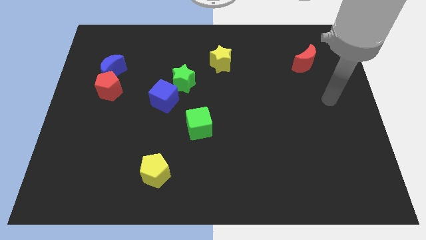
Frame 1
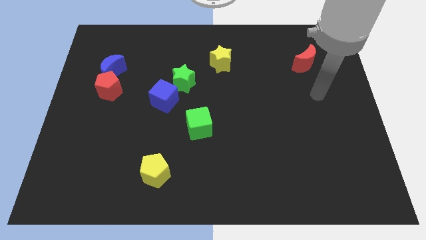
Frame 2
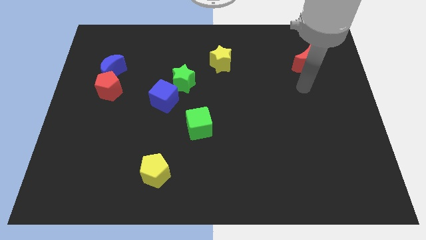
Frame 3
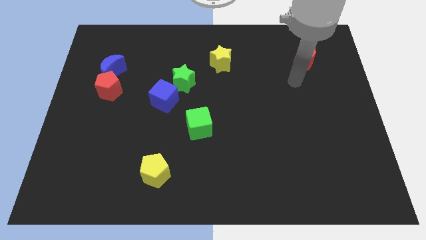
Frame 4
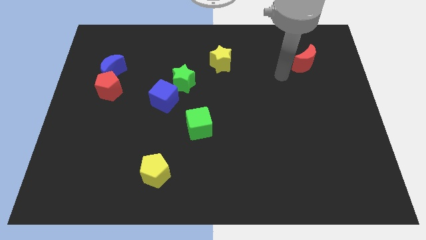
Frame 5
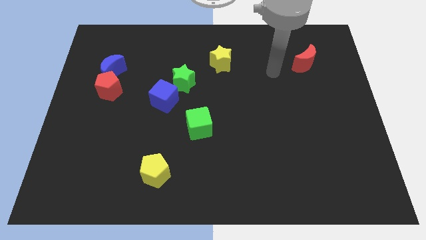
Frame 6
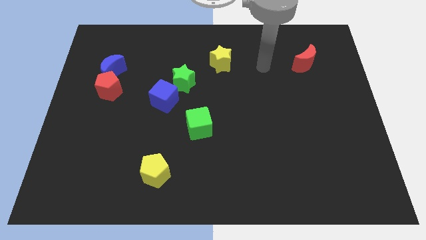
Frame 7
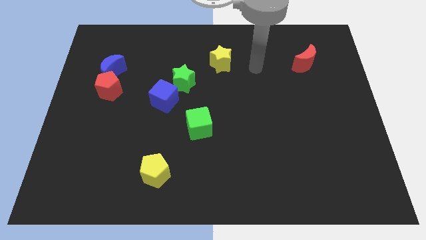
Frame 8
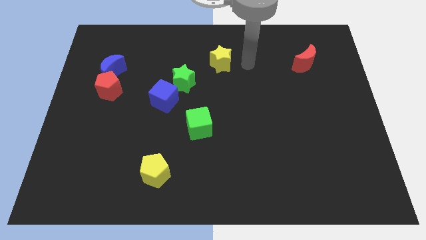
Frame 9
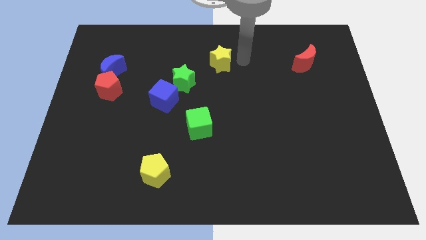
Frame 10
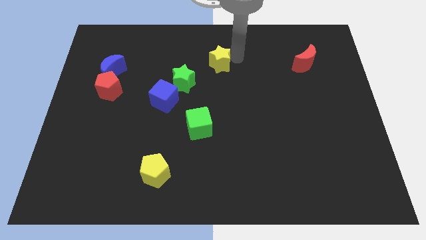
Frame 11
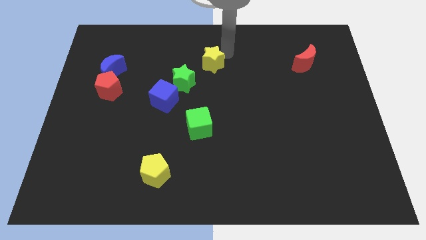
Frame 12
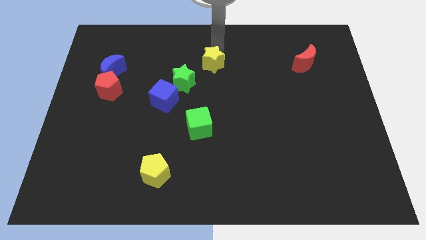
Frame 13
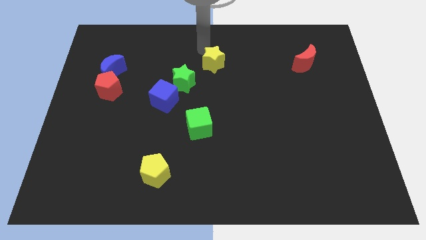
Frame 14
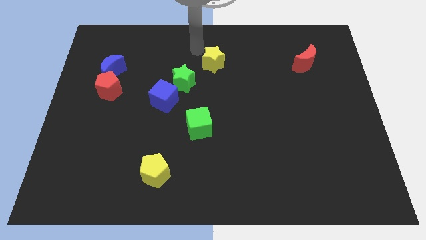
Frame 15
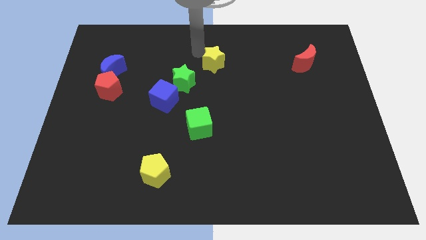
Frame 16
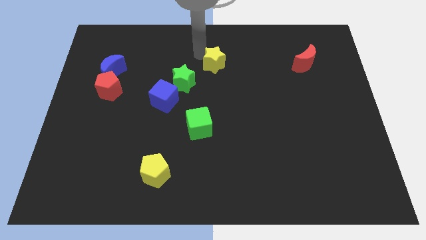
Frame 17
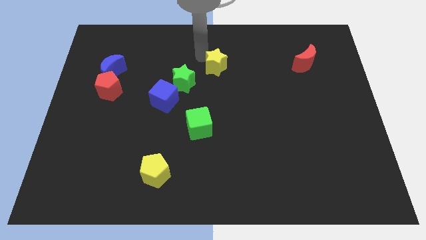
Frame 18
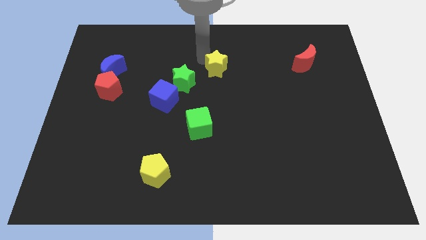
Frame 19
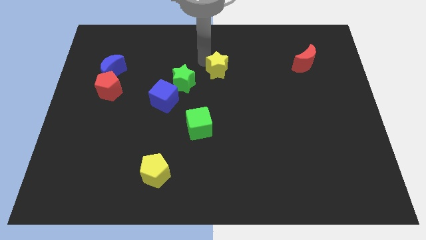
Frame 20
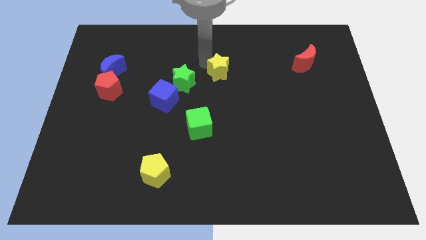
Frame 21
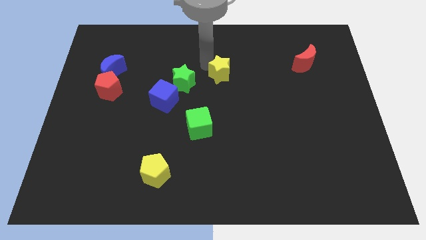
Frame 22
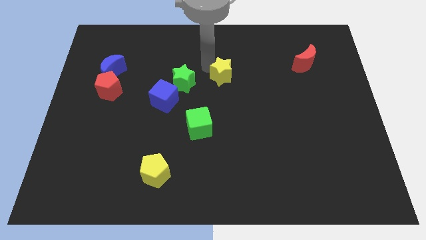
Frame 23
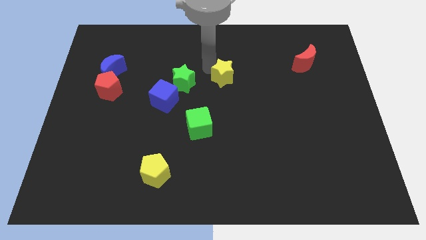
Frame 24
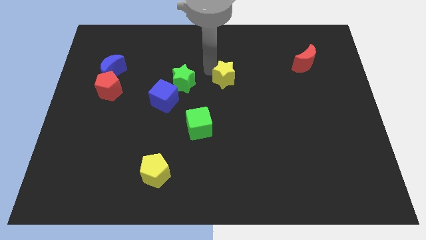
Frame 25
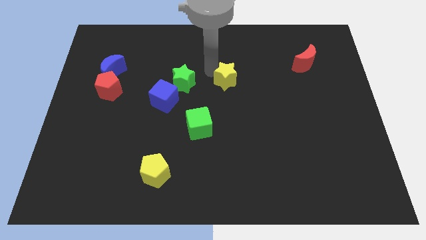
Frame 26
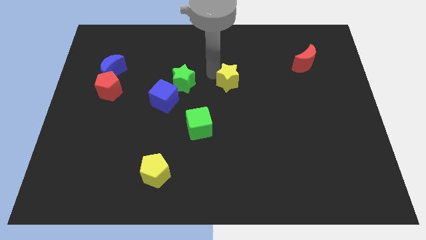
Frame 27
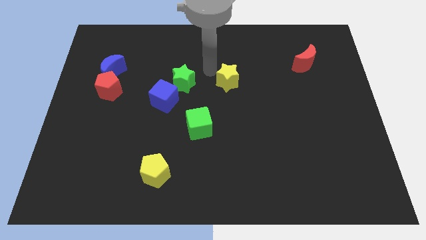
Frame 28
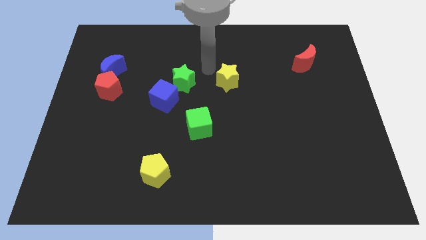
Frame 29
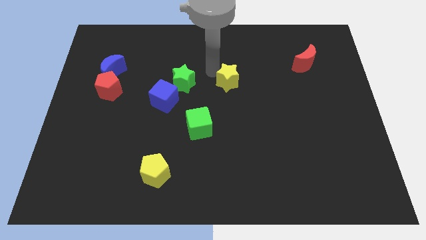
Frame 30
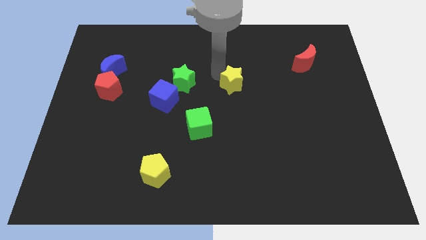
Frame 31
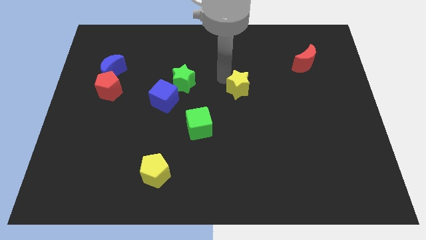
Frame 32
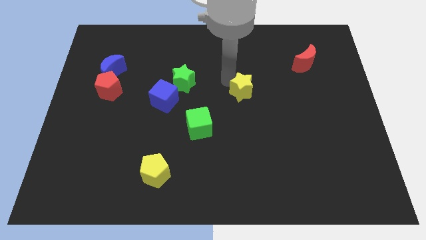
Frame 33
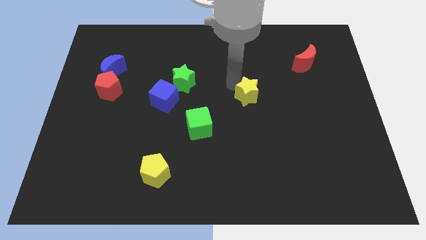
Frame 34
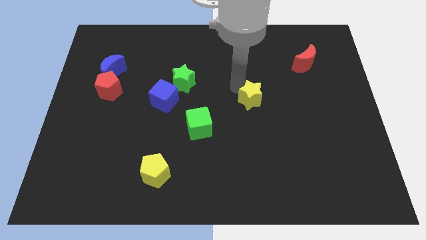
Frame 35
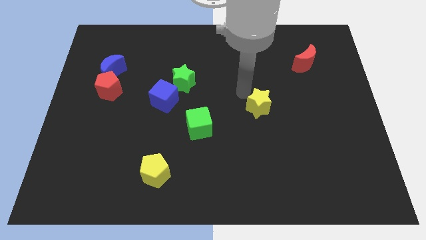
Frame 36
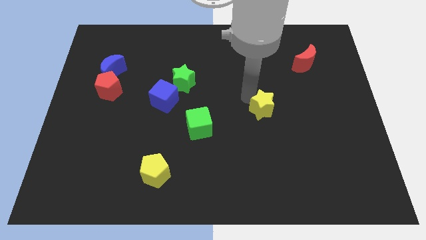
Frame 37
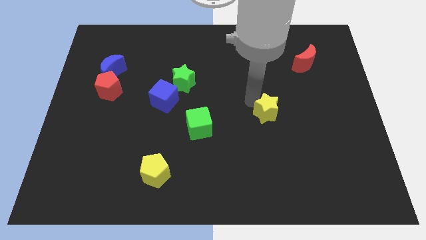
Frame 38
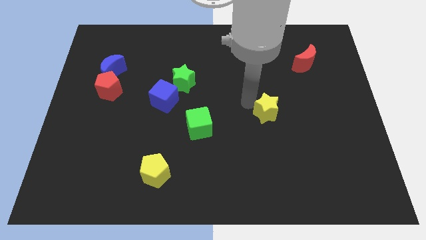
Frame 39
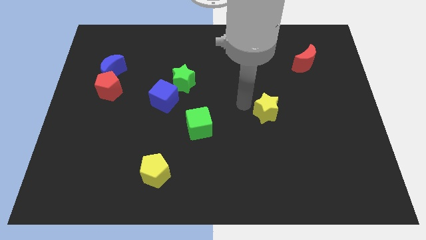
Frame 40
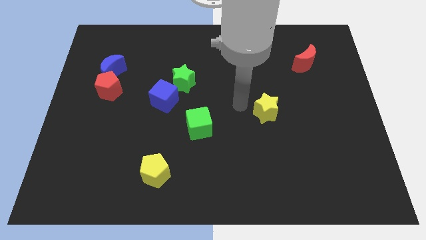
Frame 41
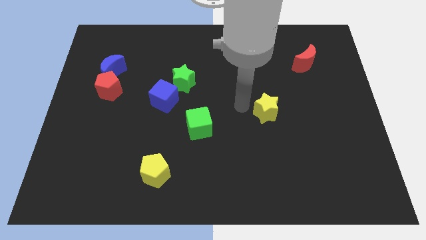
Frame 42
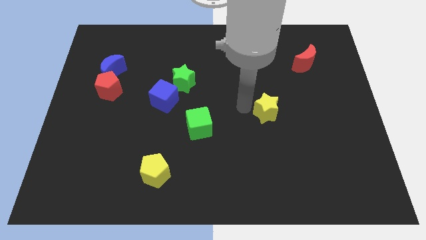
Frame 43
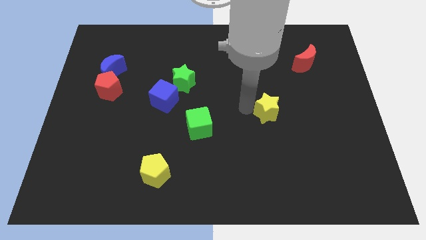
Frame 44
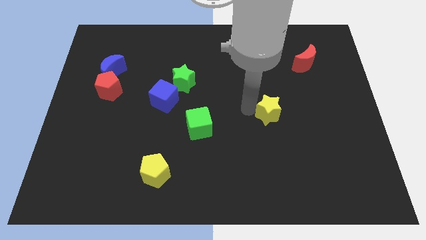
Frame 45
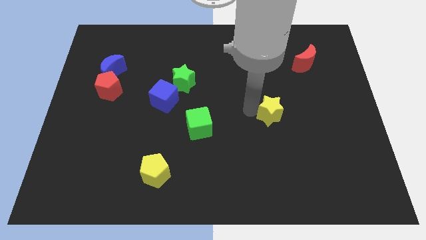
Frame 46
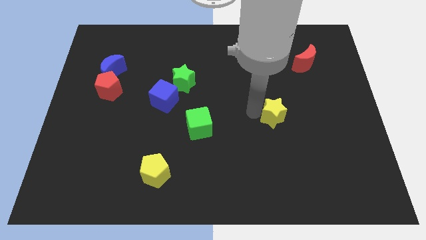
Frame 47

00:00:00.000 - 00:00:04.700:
slide the yellow star downwards and right

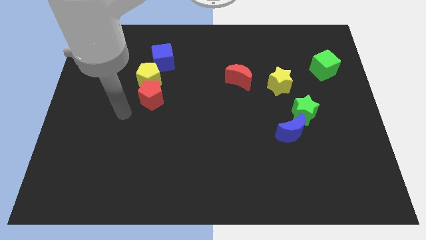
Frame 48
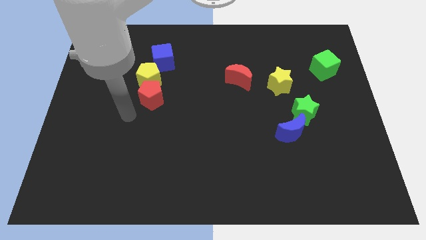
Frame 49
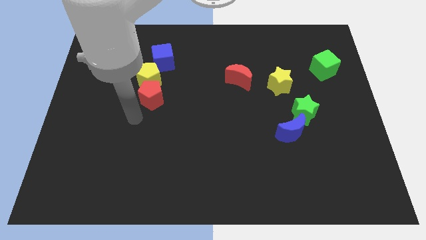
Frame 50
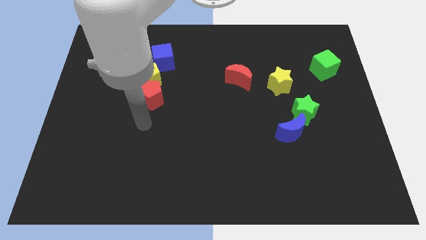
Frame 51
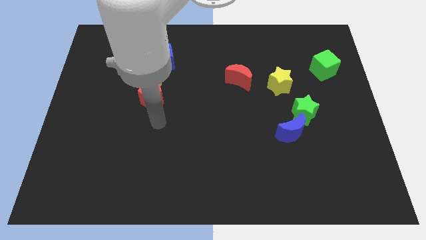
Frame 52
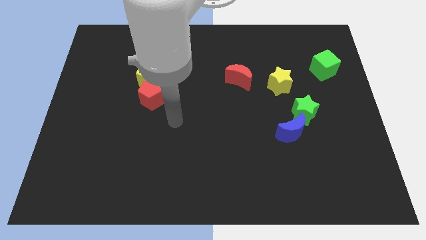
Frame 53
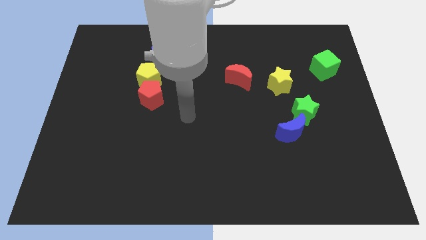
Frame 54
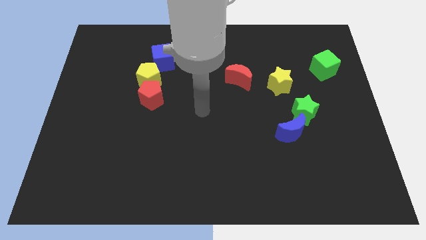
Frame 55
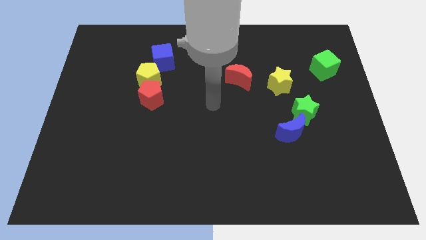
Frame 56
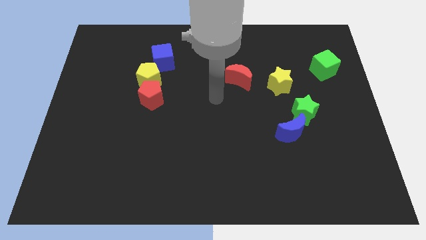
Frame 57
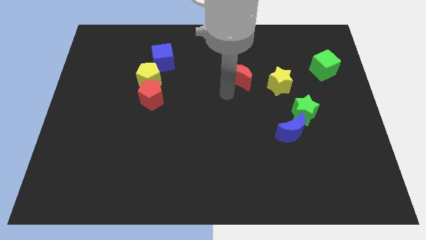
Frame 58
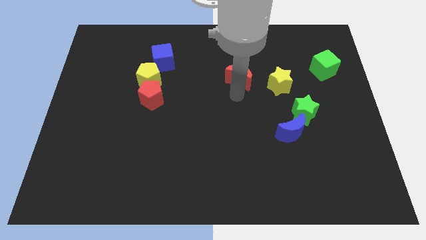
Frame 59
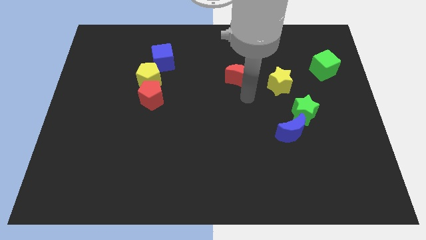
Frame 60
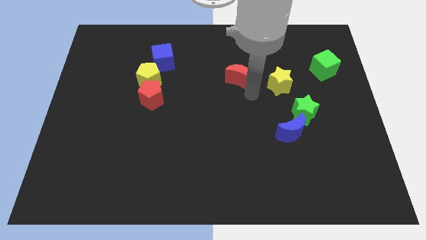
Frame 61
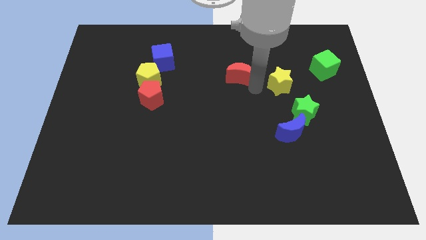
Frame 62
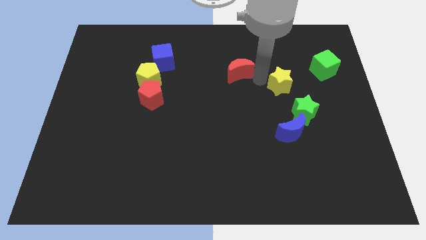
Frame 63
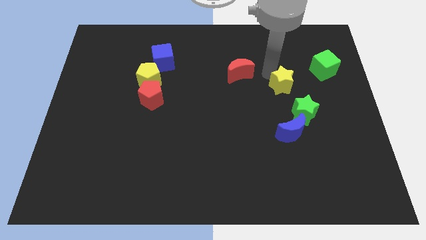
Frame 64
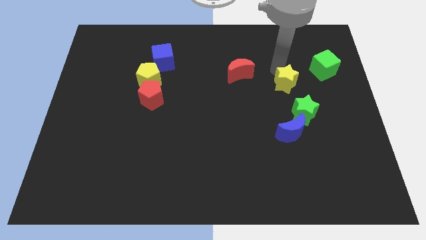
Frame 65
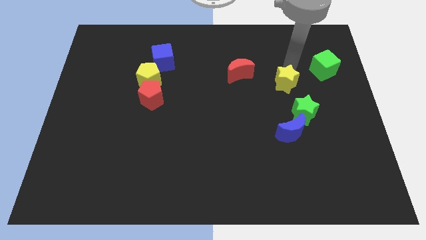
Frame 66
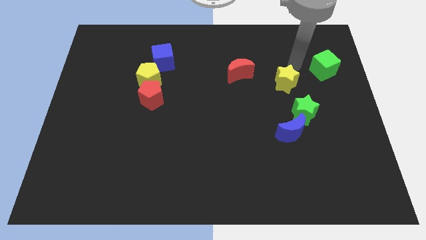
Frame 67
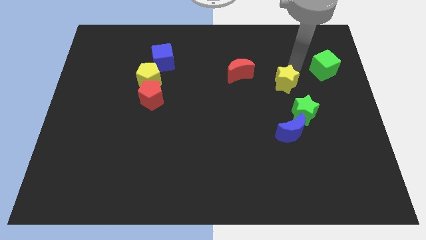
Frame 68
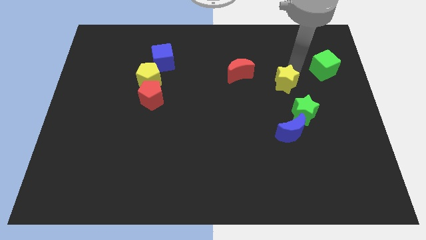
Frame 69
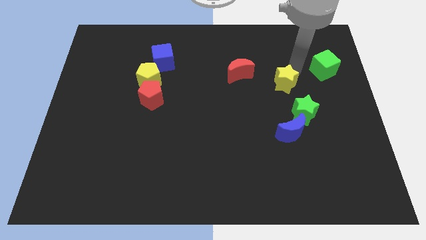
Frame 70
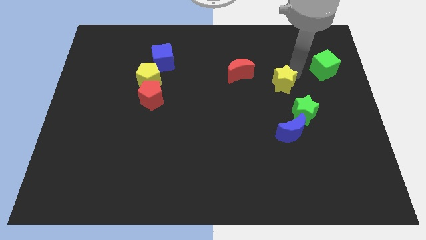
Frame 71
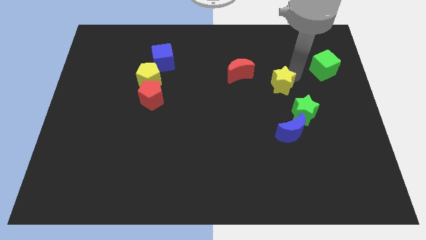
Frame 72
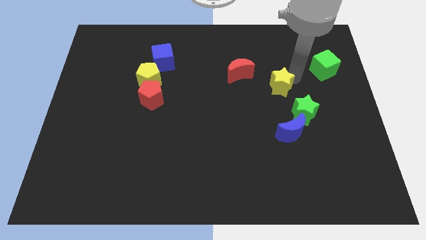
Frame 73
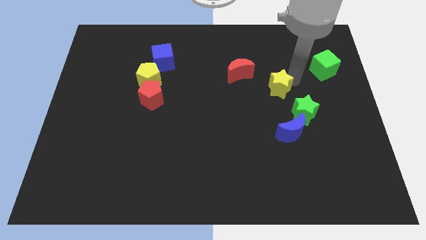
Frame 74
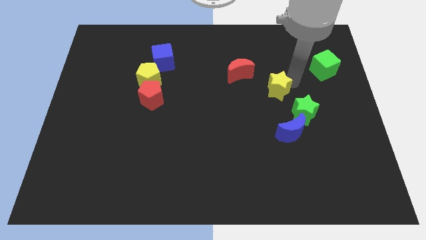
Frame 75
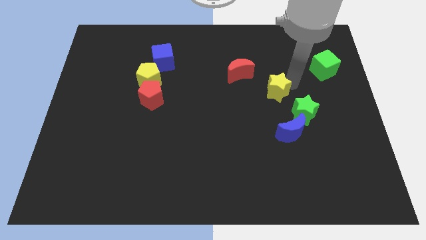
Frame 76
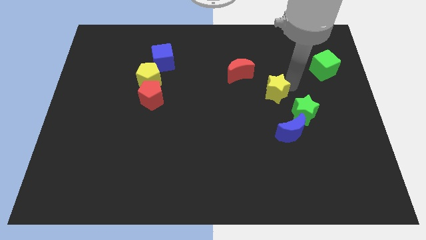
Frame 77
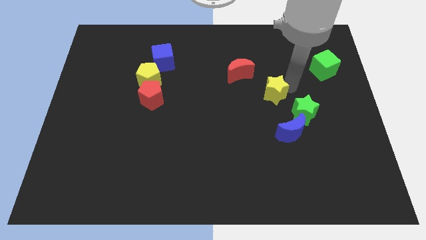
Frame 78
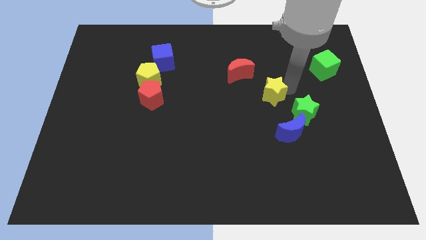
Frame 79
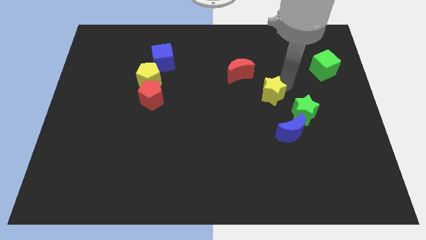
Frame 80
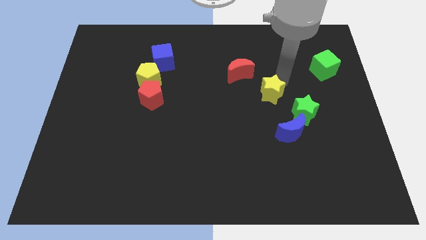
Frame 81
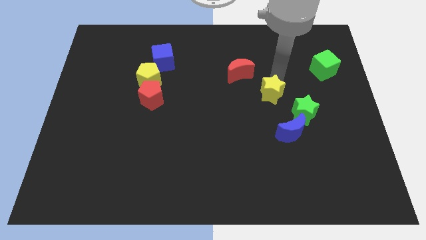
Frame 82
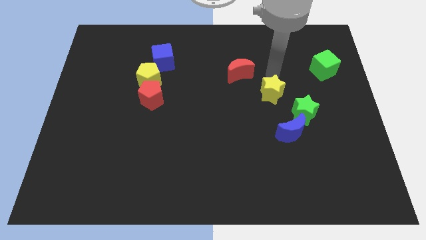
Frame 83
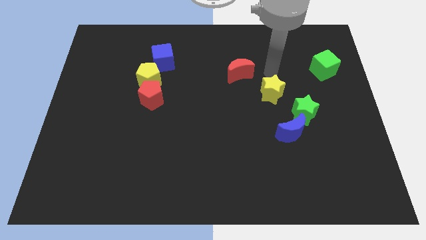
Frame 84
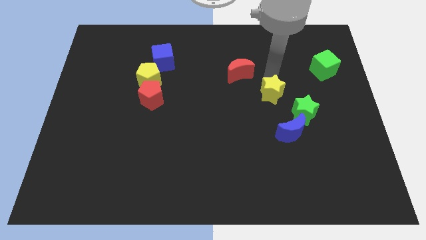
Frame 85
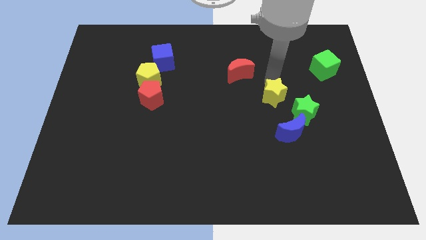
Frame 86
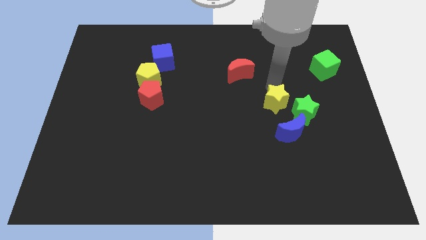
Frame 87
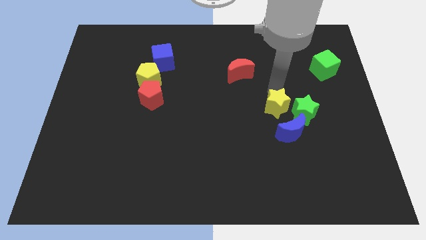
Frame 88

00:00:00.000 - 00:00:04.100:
slightly push the yellow star down
